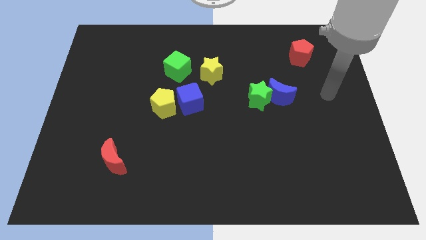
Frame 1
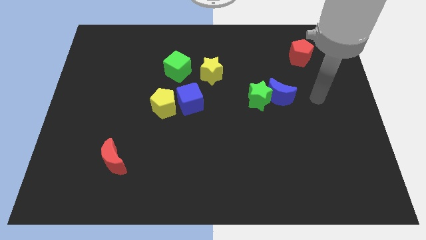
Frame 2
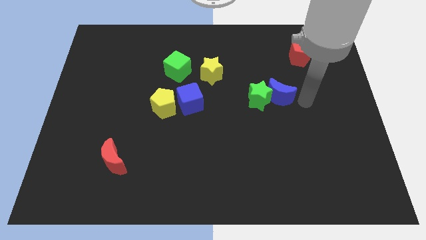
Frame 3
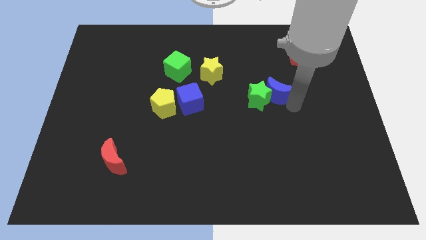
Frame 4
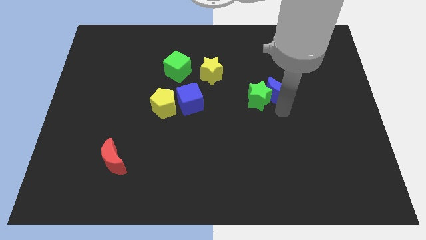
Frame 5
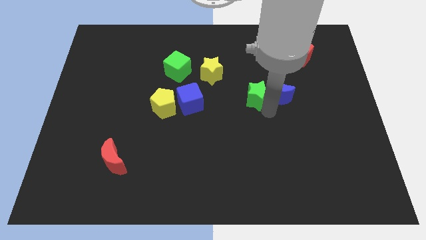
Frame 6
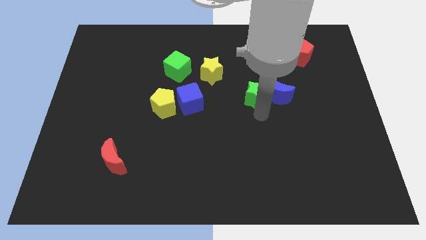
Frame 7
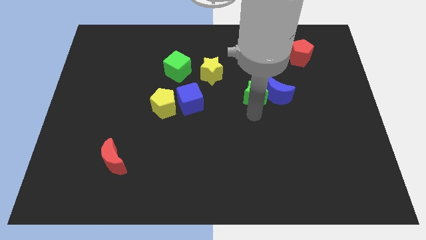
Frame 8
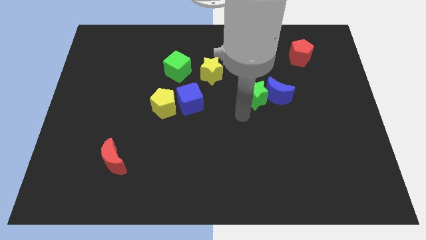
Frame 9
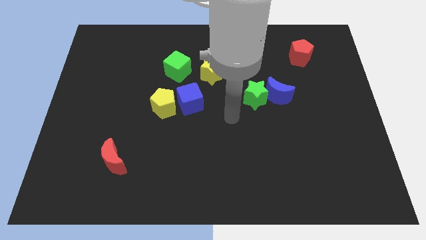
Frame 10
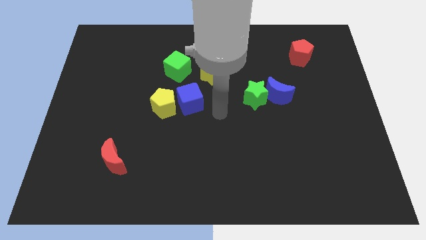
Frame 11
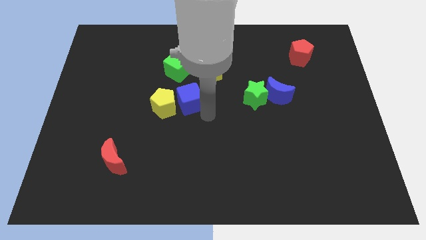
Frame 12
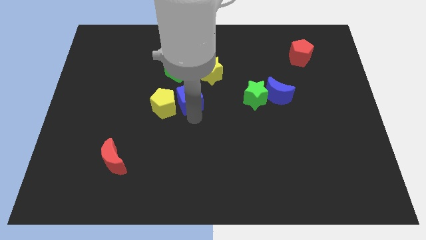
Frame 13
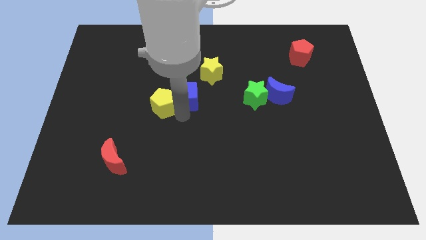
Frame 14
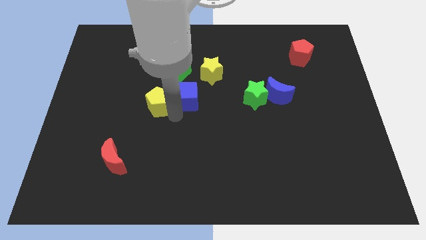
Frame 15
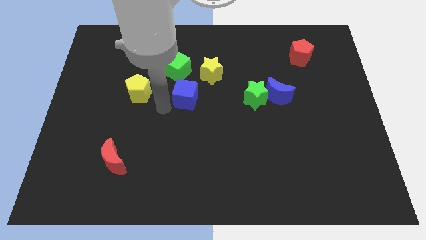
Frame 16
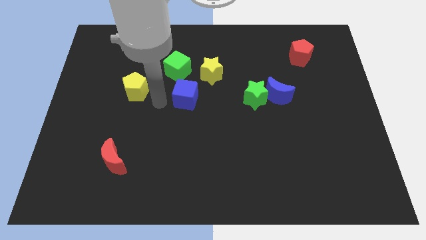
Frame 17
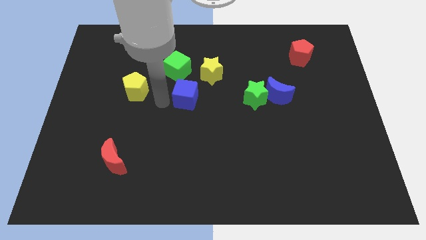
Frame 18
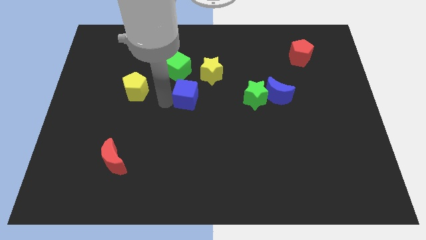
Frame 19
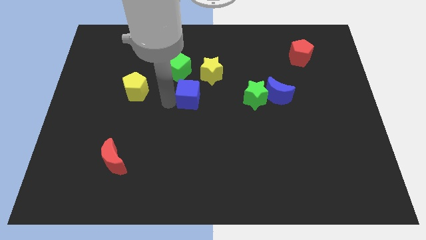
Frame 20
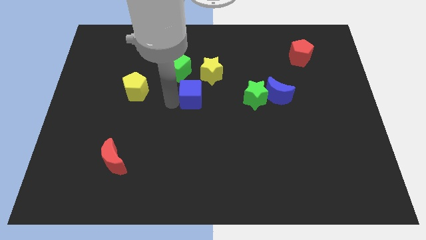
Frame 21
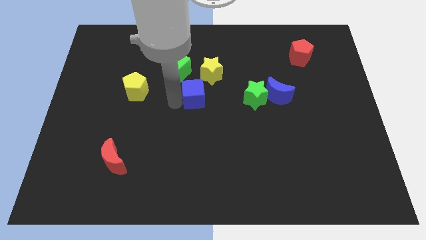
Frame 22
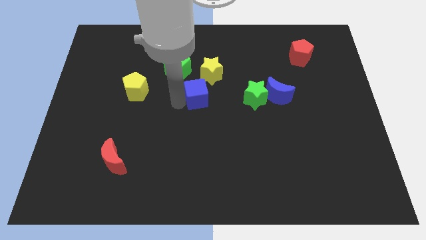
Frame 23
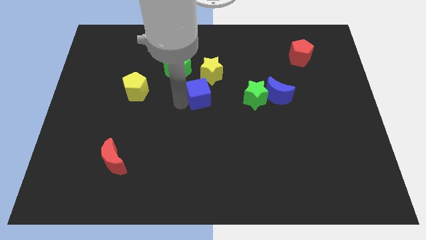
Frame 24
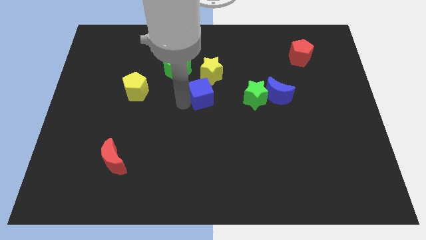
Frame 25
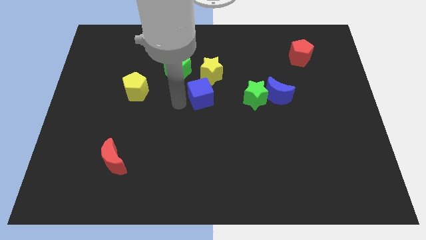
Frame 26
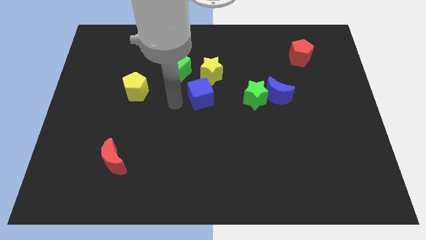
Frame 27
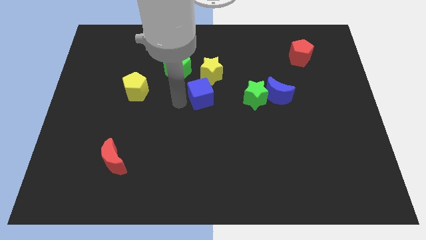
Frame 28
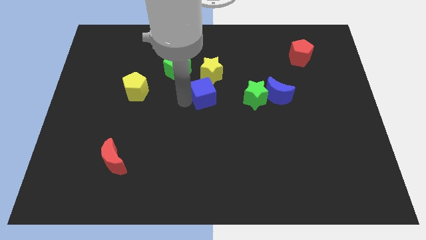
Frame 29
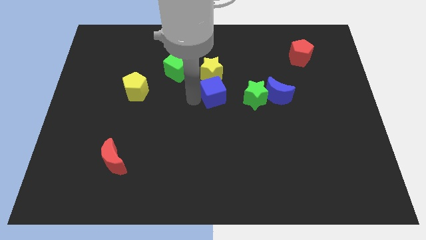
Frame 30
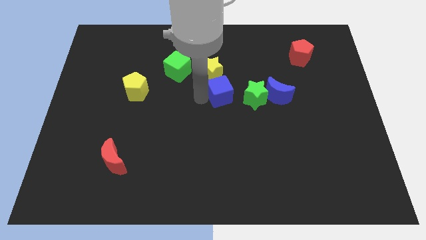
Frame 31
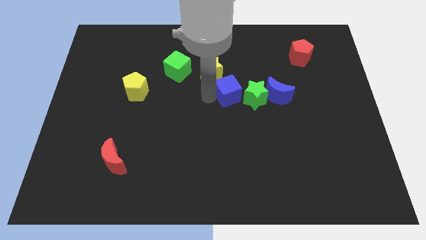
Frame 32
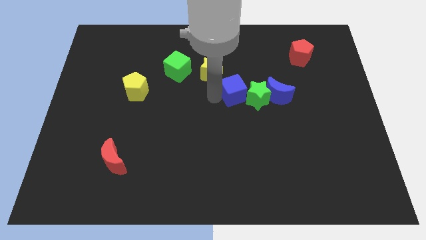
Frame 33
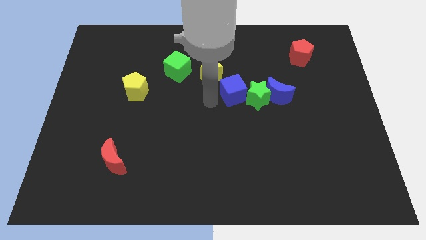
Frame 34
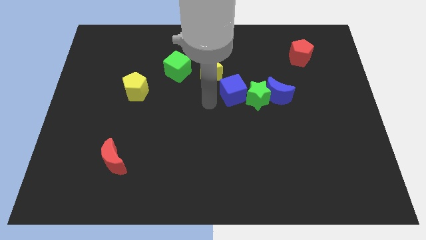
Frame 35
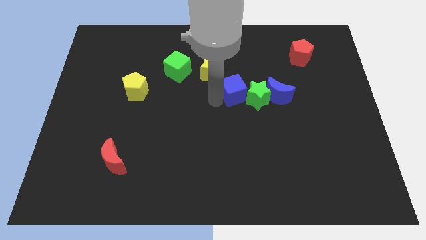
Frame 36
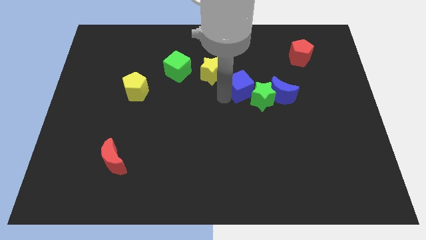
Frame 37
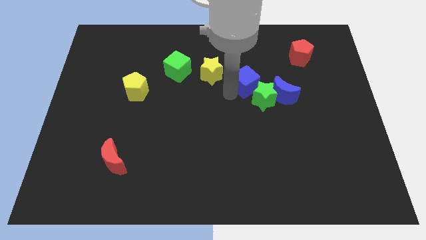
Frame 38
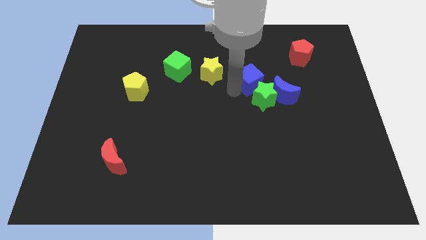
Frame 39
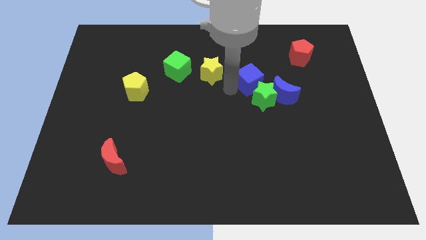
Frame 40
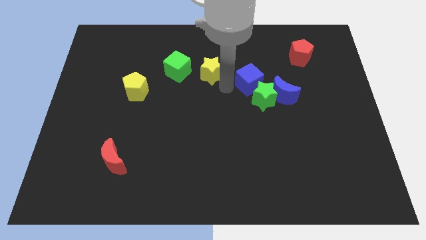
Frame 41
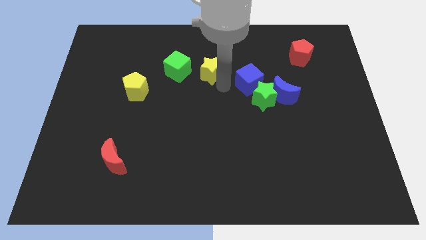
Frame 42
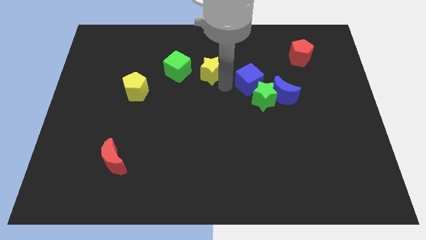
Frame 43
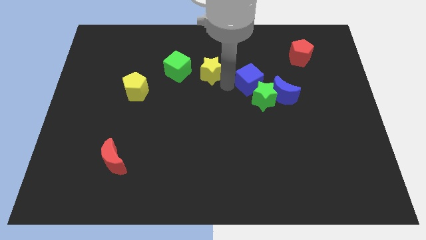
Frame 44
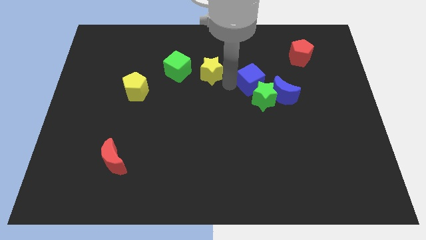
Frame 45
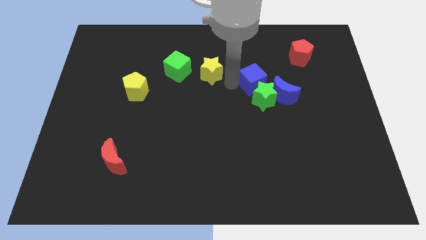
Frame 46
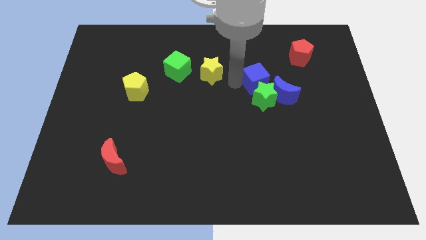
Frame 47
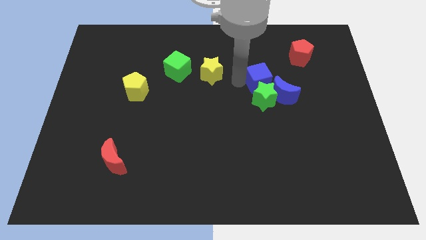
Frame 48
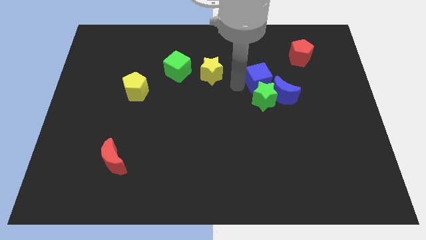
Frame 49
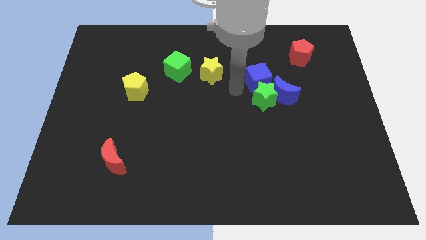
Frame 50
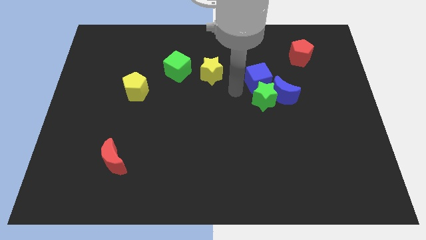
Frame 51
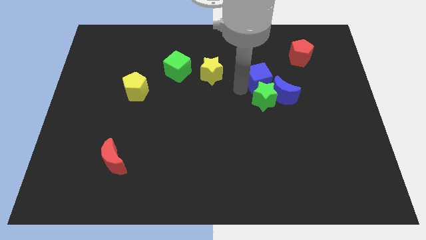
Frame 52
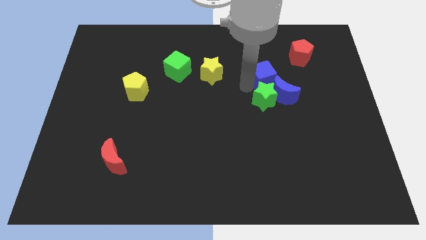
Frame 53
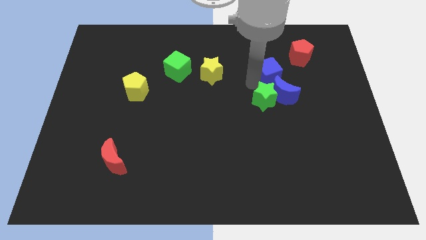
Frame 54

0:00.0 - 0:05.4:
slide the blue cube to the bottom left of the red pentagon

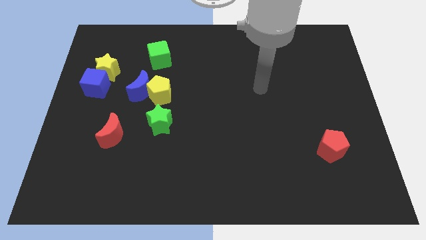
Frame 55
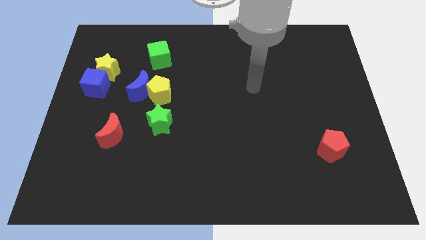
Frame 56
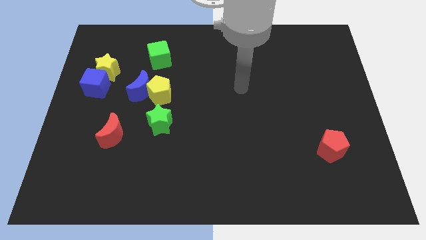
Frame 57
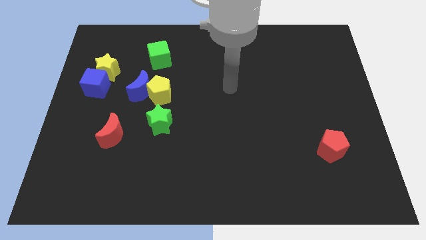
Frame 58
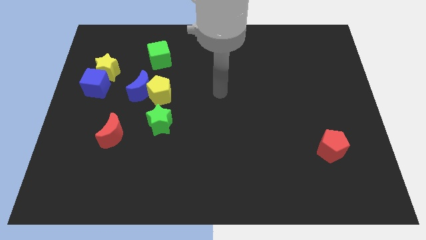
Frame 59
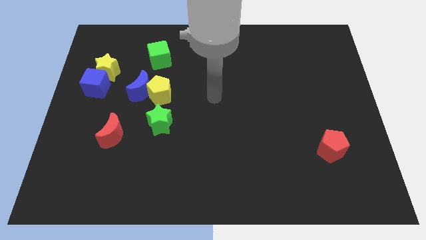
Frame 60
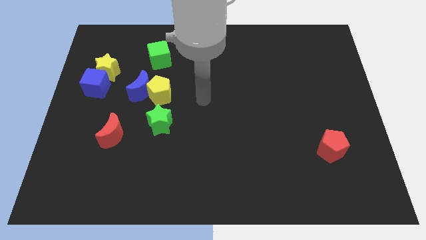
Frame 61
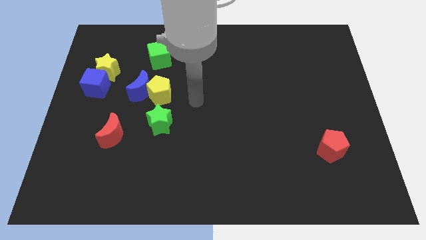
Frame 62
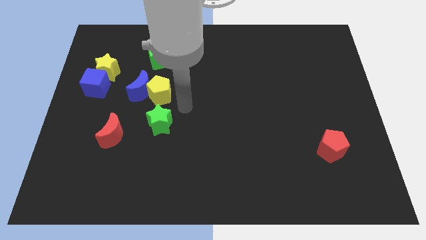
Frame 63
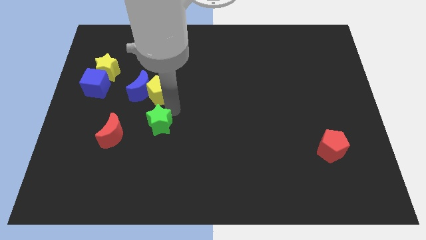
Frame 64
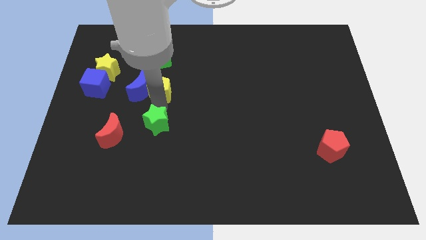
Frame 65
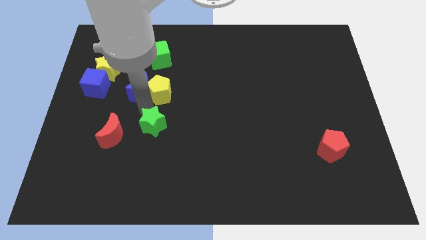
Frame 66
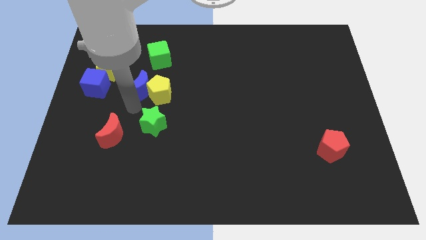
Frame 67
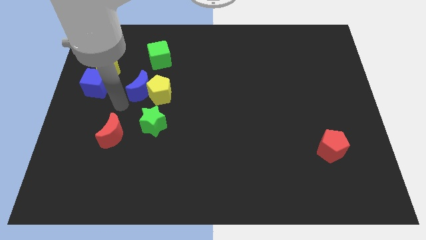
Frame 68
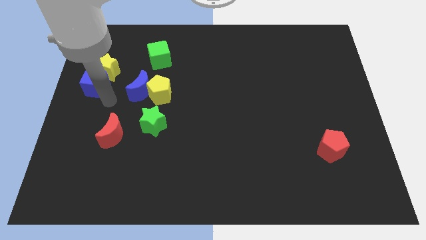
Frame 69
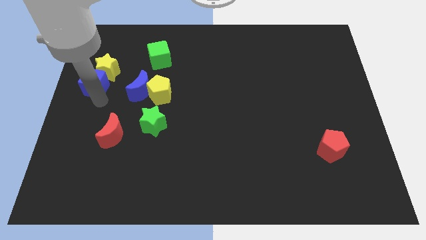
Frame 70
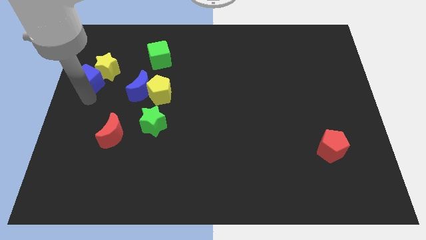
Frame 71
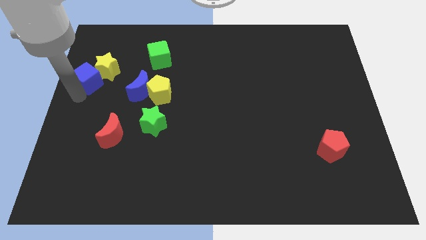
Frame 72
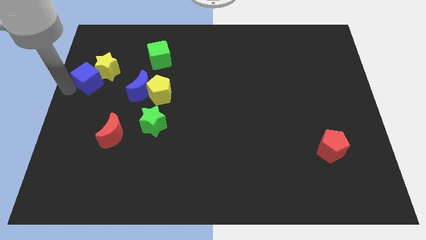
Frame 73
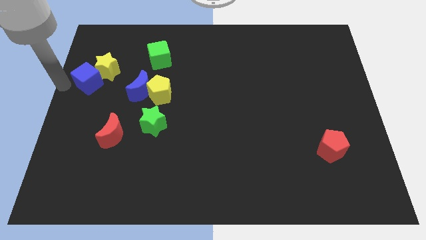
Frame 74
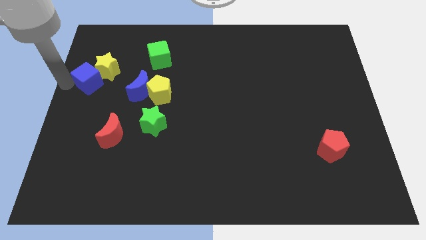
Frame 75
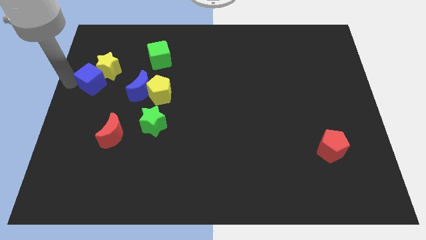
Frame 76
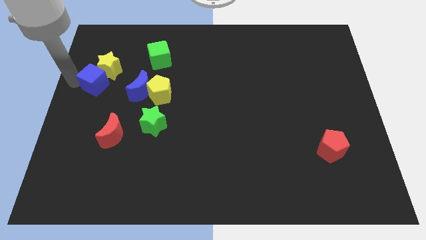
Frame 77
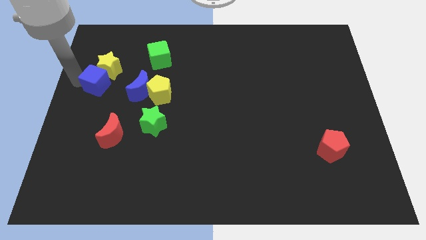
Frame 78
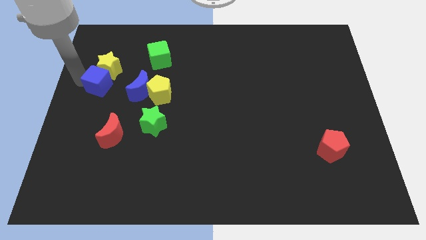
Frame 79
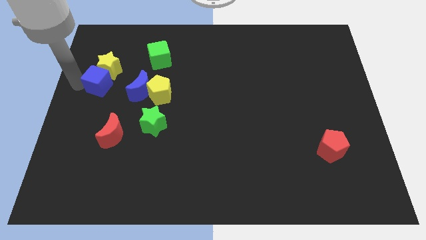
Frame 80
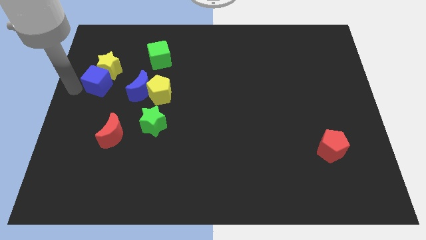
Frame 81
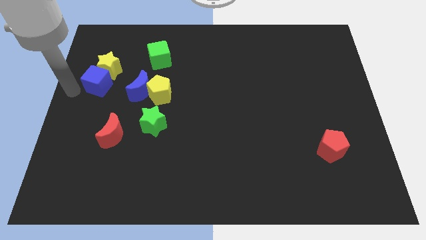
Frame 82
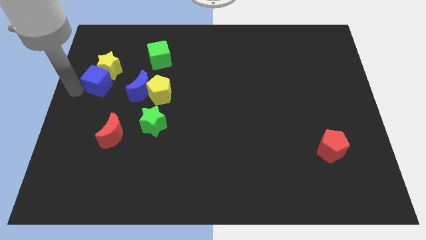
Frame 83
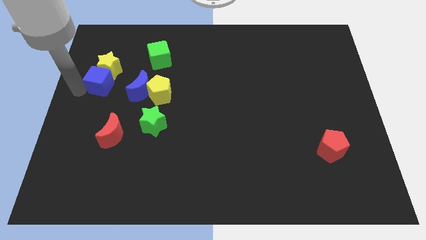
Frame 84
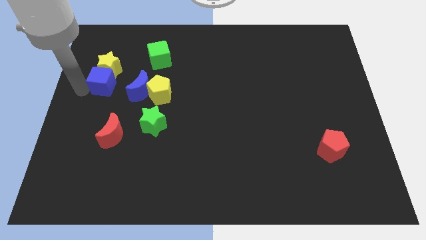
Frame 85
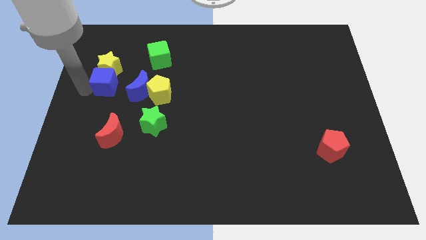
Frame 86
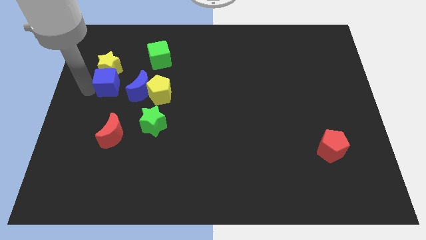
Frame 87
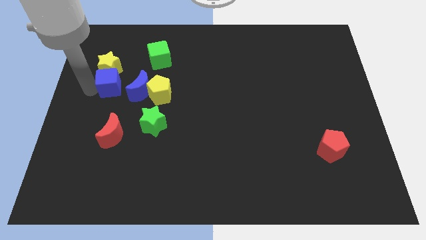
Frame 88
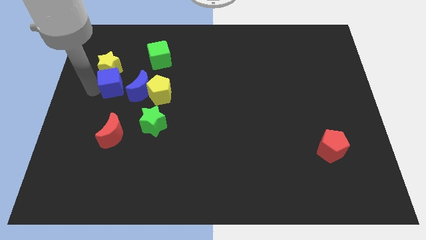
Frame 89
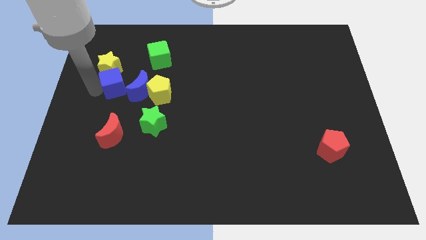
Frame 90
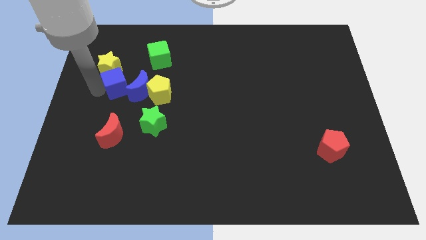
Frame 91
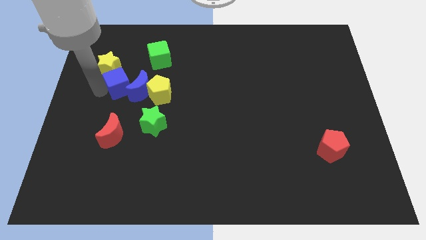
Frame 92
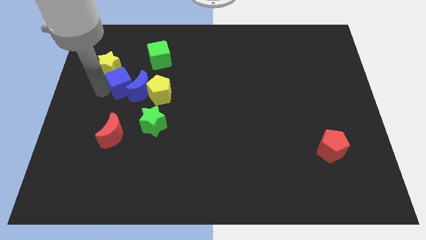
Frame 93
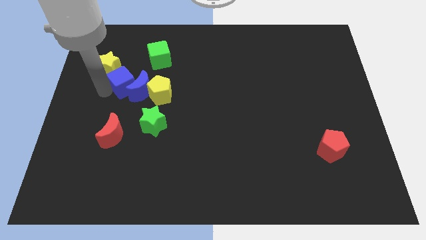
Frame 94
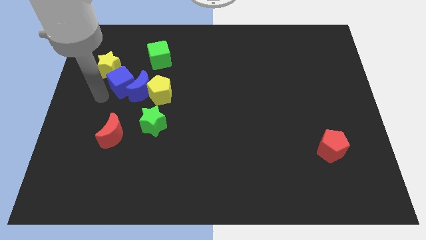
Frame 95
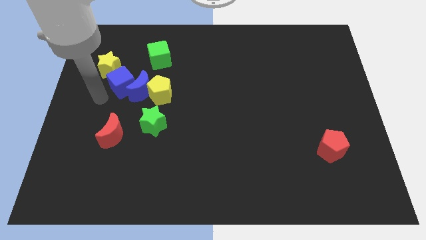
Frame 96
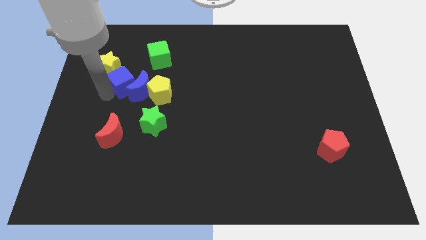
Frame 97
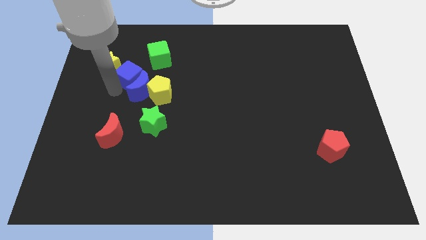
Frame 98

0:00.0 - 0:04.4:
push the blue cube to the right side of the yellow star
